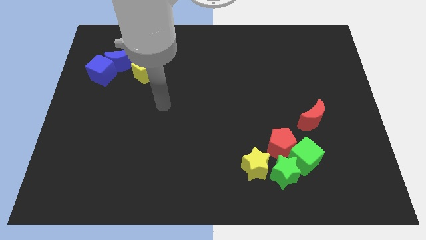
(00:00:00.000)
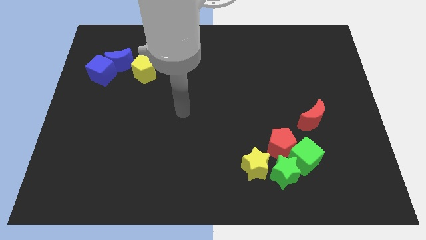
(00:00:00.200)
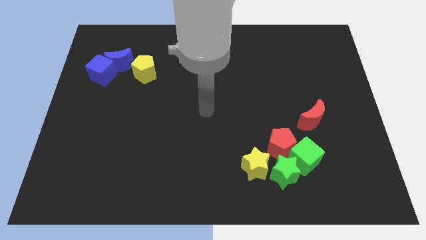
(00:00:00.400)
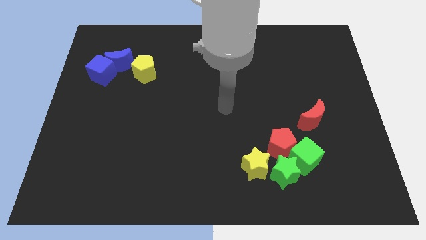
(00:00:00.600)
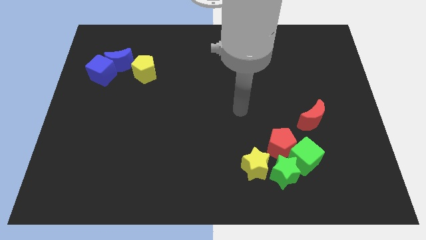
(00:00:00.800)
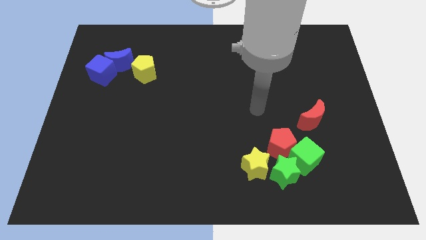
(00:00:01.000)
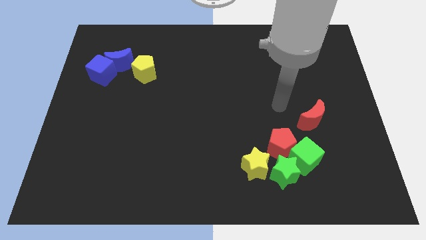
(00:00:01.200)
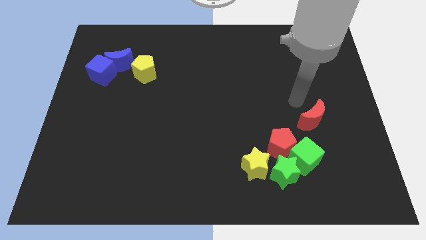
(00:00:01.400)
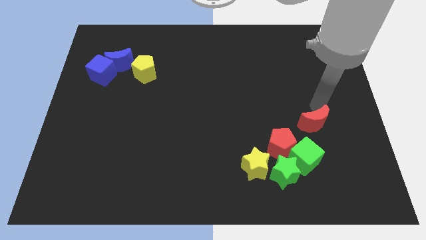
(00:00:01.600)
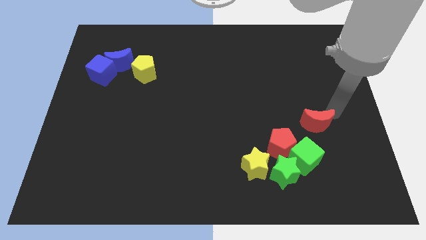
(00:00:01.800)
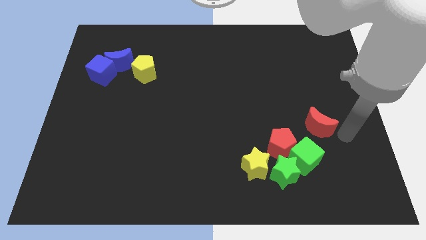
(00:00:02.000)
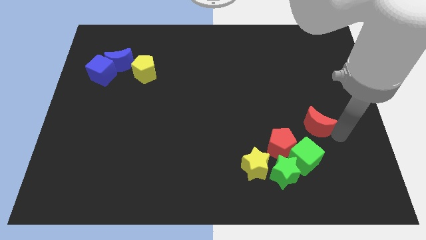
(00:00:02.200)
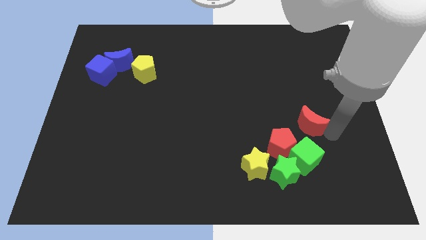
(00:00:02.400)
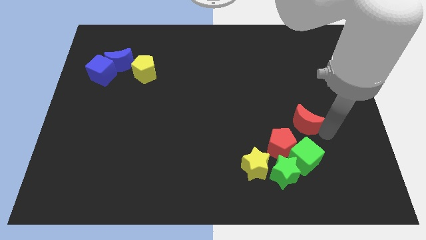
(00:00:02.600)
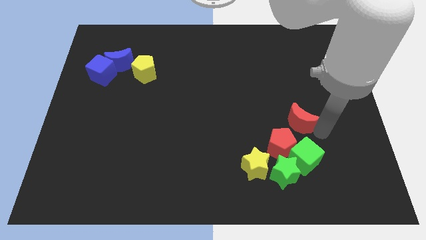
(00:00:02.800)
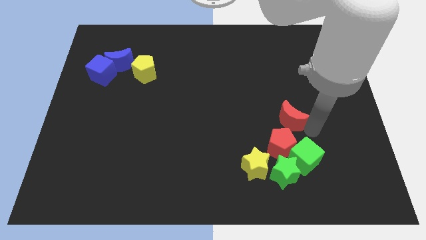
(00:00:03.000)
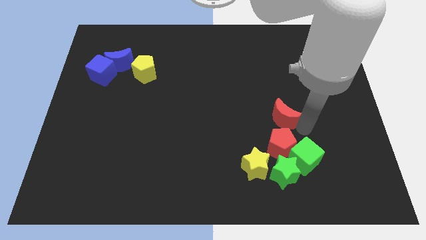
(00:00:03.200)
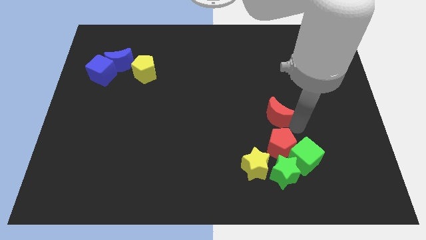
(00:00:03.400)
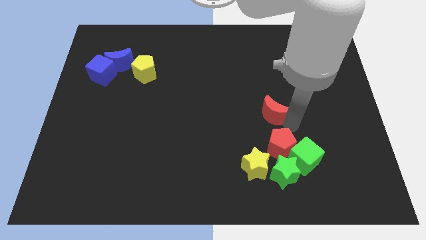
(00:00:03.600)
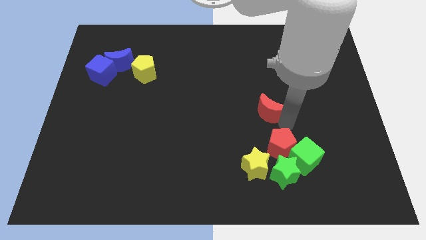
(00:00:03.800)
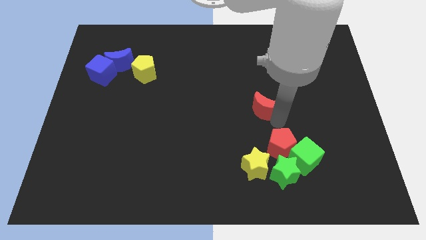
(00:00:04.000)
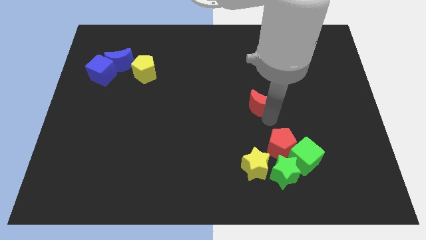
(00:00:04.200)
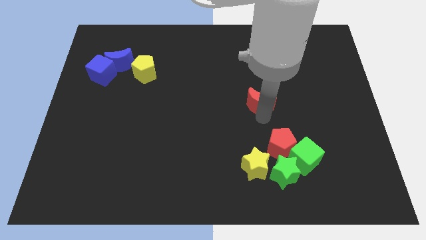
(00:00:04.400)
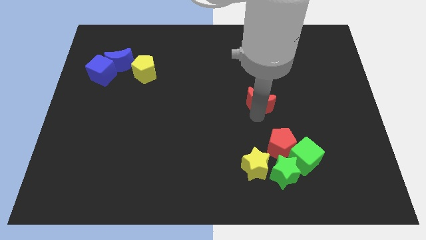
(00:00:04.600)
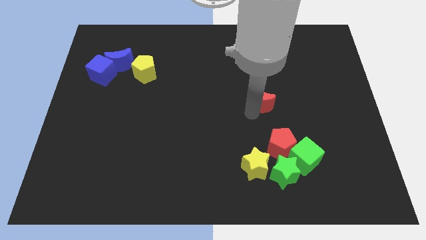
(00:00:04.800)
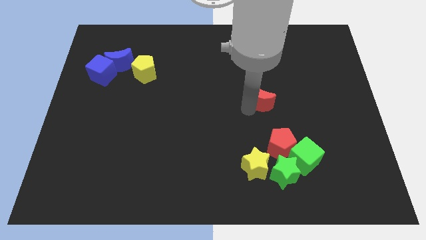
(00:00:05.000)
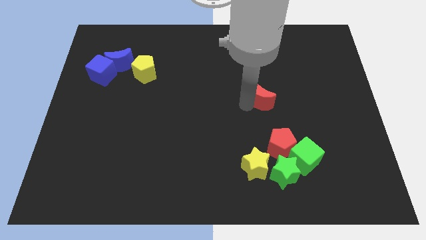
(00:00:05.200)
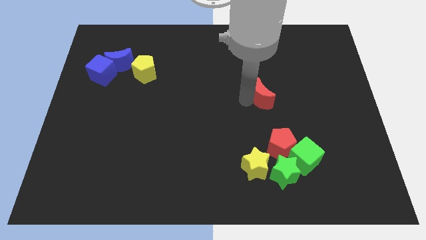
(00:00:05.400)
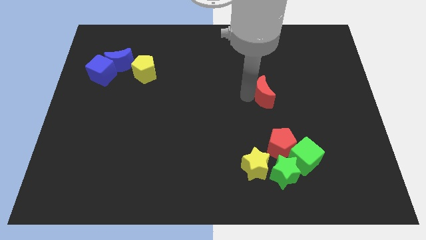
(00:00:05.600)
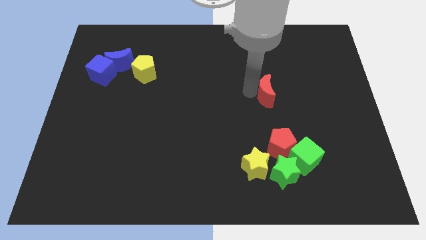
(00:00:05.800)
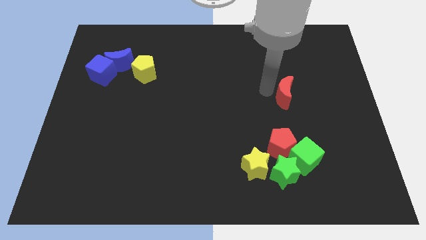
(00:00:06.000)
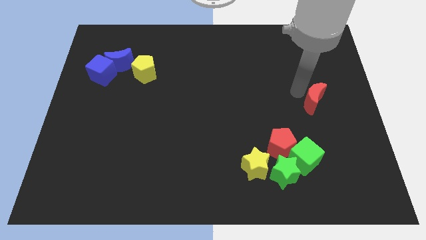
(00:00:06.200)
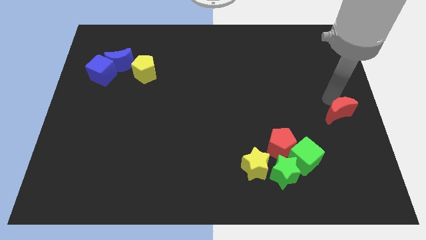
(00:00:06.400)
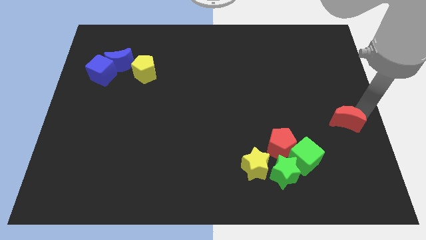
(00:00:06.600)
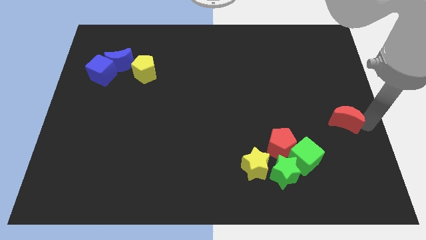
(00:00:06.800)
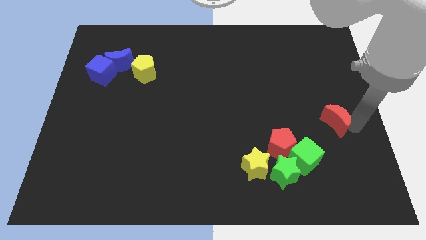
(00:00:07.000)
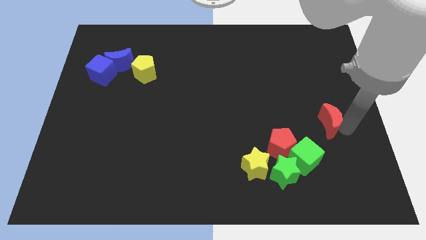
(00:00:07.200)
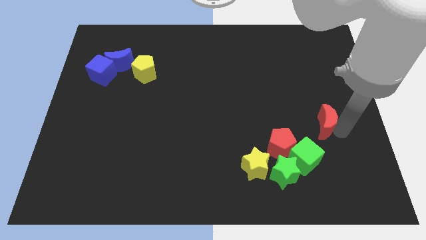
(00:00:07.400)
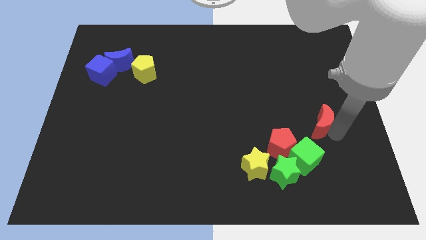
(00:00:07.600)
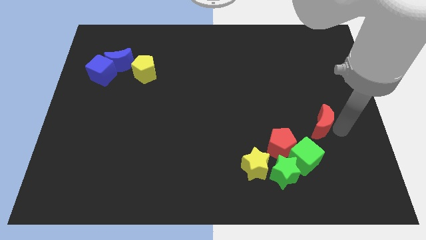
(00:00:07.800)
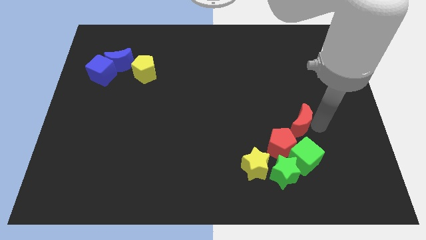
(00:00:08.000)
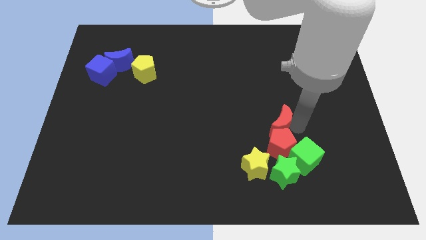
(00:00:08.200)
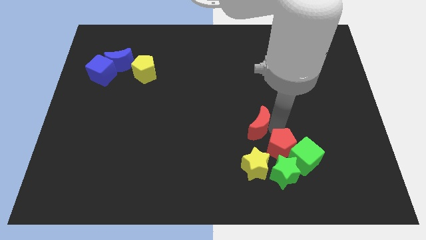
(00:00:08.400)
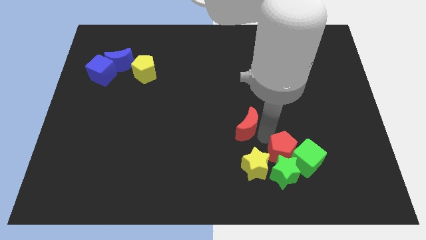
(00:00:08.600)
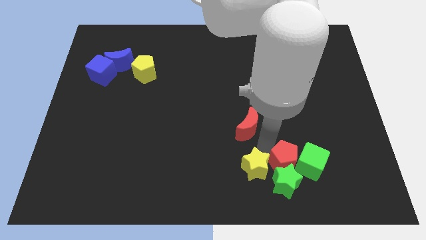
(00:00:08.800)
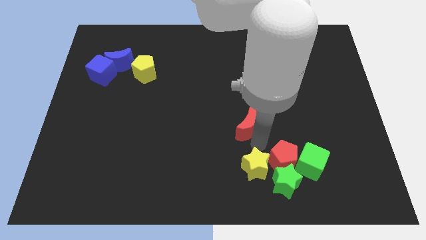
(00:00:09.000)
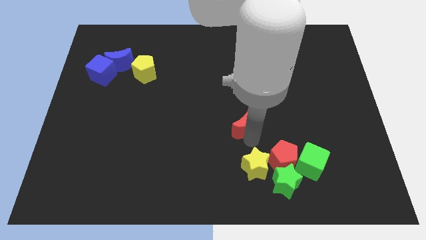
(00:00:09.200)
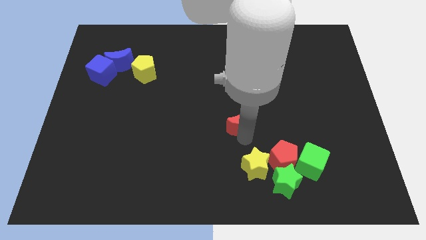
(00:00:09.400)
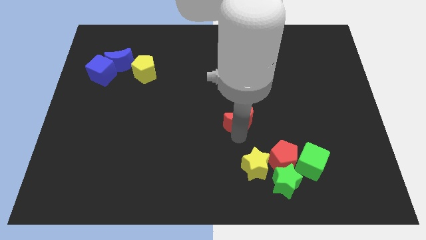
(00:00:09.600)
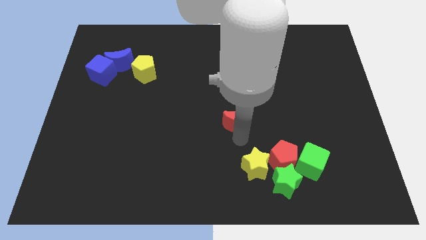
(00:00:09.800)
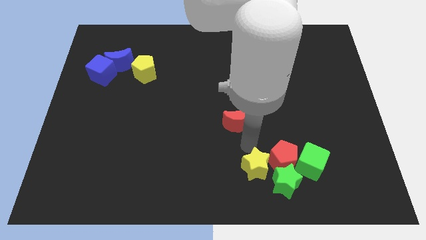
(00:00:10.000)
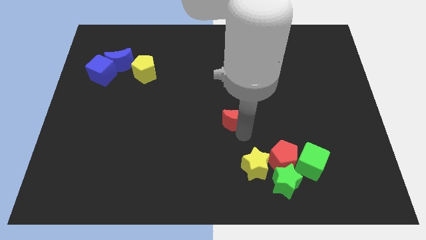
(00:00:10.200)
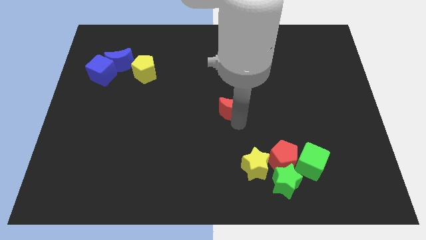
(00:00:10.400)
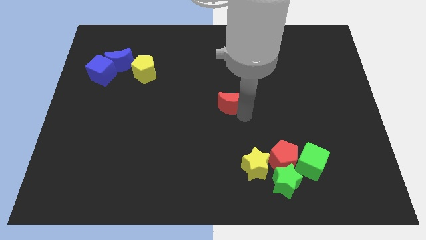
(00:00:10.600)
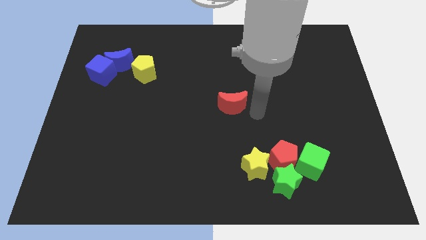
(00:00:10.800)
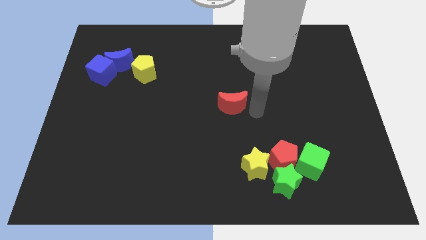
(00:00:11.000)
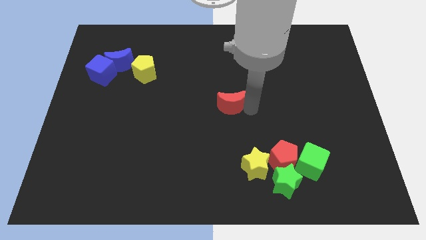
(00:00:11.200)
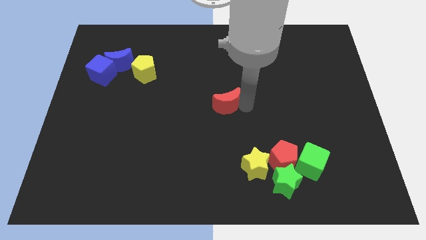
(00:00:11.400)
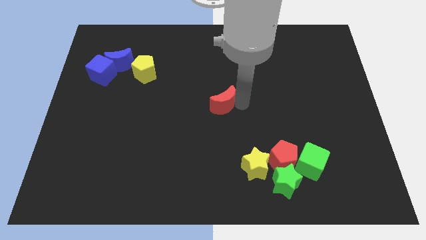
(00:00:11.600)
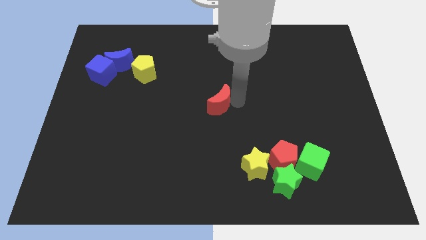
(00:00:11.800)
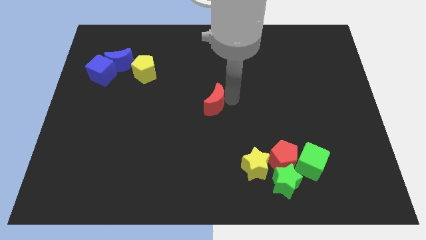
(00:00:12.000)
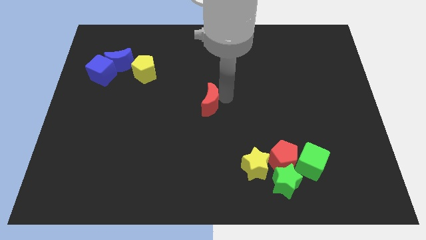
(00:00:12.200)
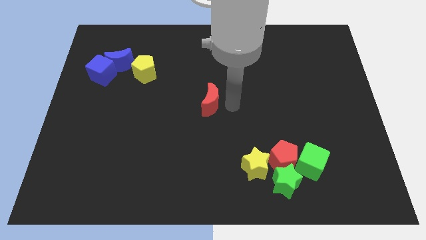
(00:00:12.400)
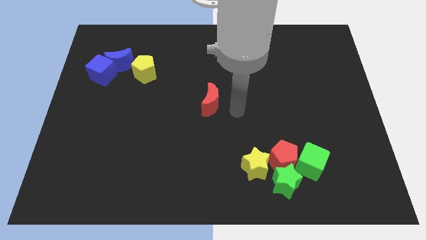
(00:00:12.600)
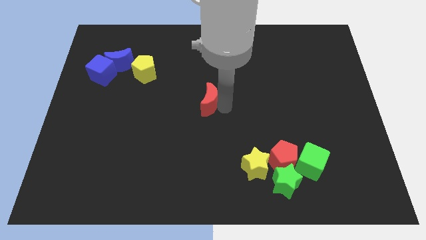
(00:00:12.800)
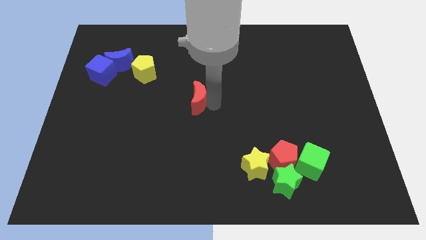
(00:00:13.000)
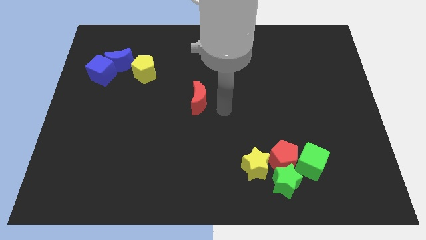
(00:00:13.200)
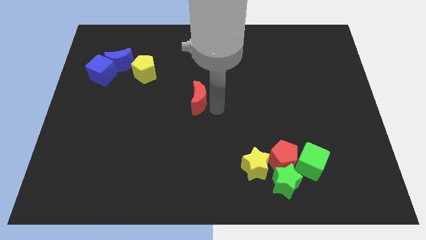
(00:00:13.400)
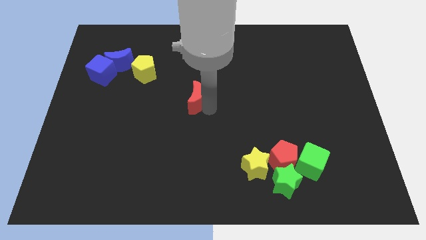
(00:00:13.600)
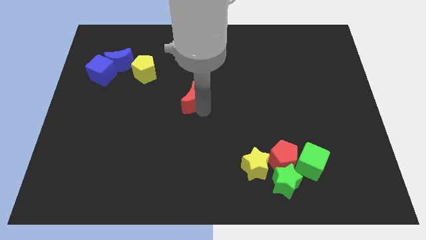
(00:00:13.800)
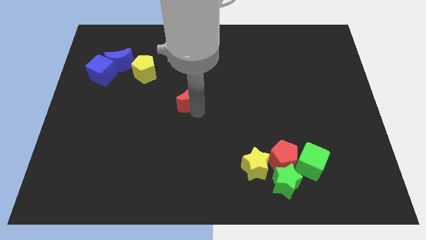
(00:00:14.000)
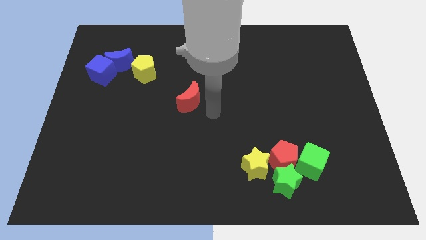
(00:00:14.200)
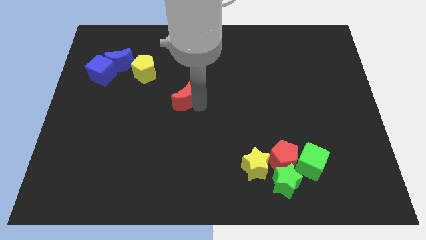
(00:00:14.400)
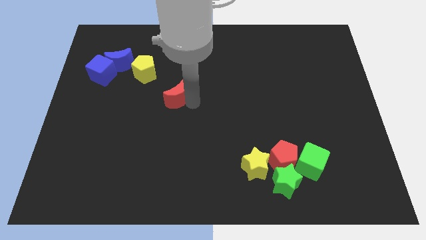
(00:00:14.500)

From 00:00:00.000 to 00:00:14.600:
put the red moon to the bottom right of the yellow pentagon
